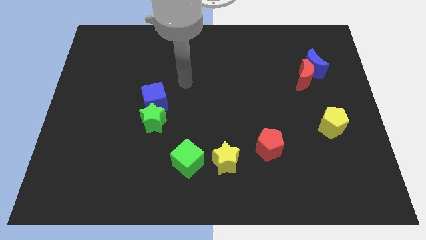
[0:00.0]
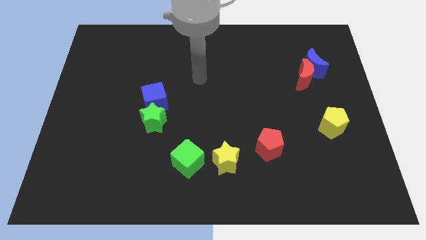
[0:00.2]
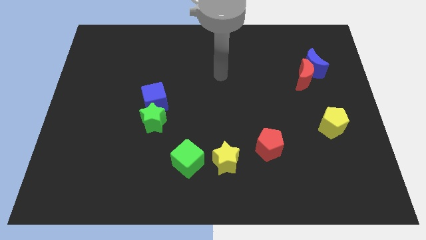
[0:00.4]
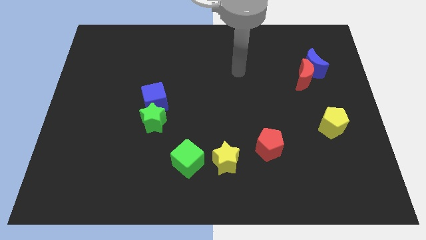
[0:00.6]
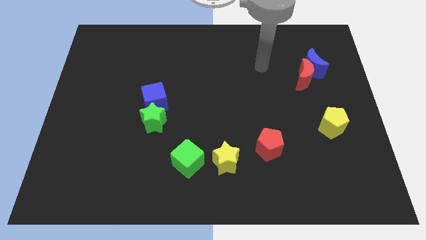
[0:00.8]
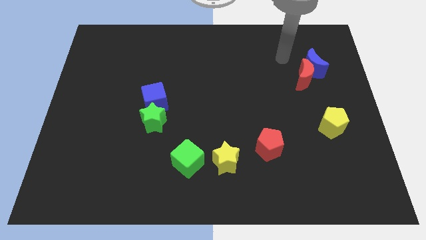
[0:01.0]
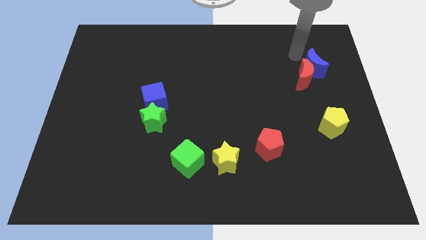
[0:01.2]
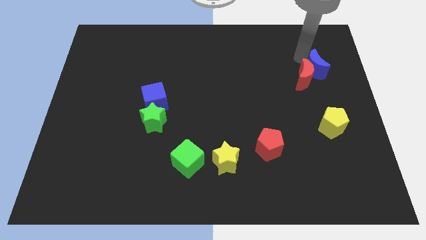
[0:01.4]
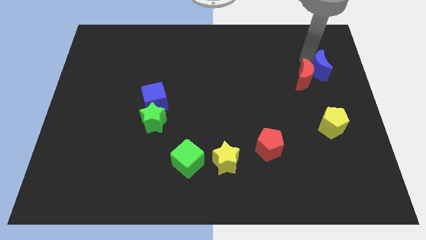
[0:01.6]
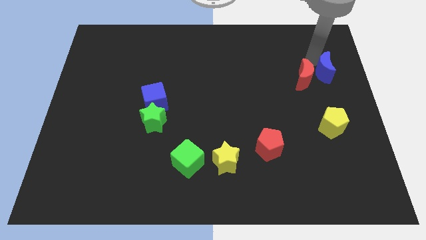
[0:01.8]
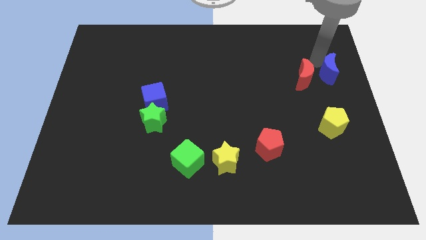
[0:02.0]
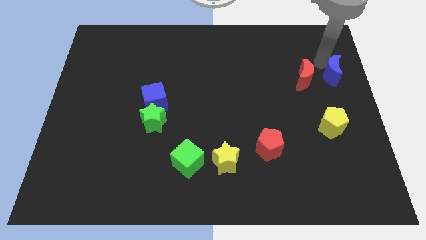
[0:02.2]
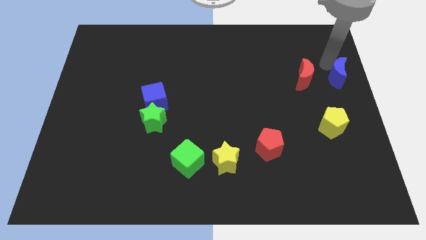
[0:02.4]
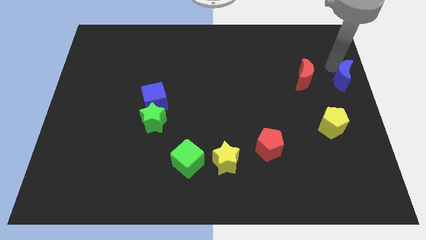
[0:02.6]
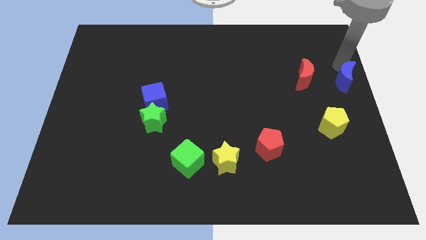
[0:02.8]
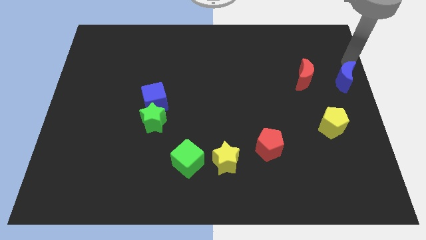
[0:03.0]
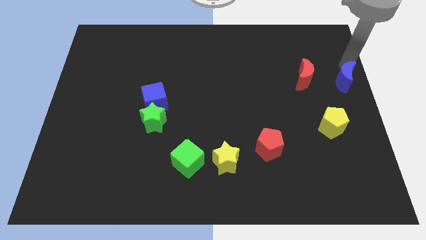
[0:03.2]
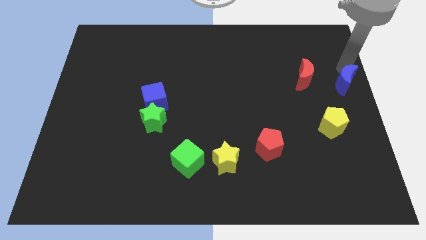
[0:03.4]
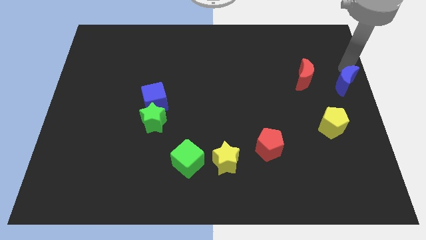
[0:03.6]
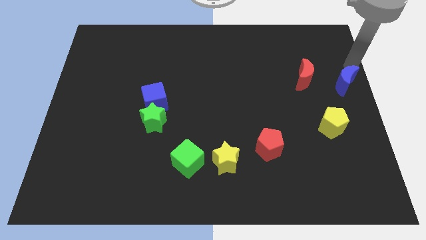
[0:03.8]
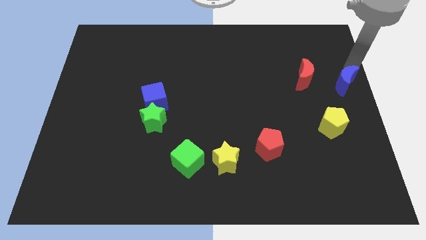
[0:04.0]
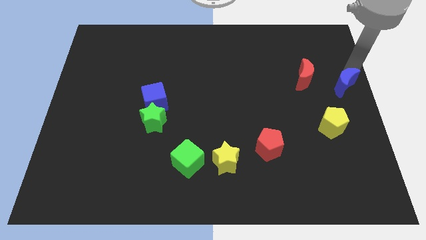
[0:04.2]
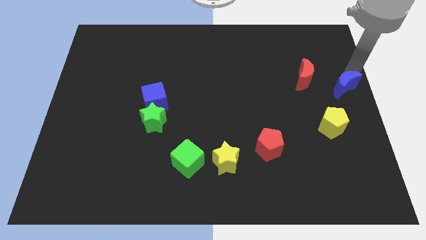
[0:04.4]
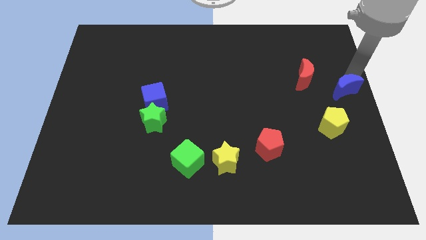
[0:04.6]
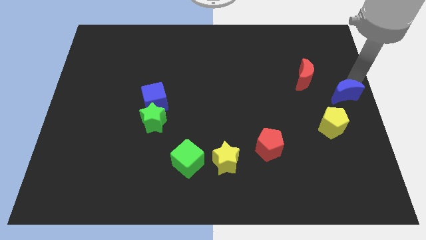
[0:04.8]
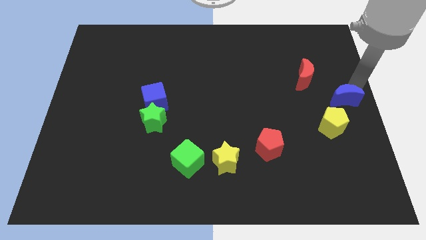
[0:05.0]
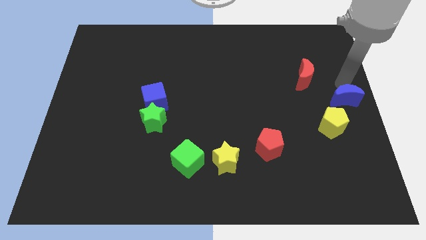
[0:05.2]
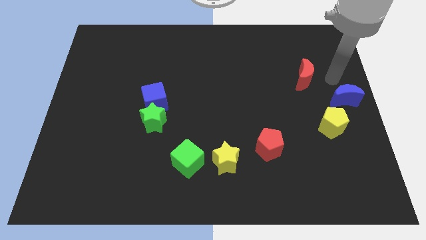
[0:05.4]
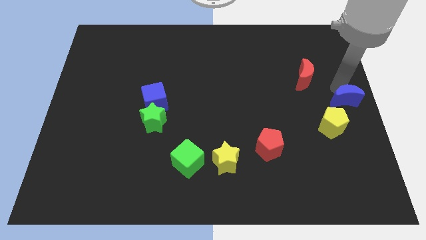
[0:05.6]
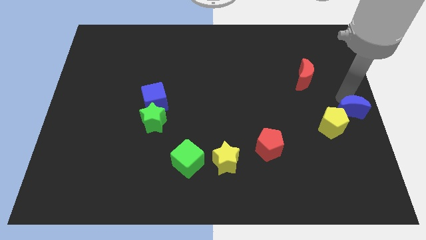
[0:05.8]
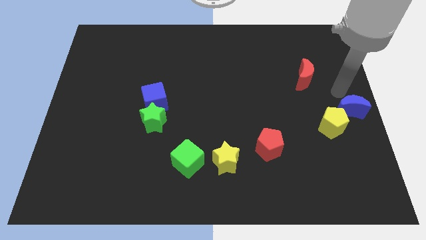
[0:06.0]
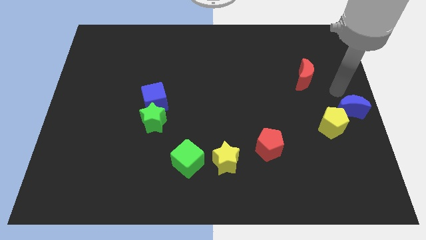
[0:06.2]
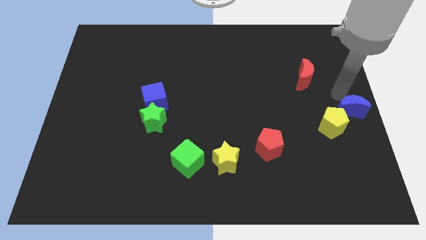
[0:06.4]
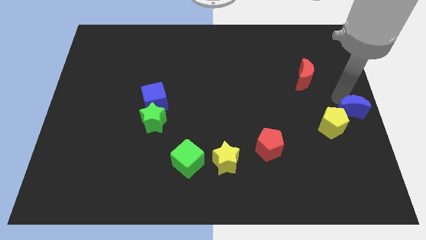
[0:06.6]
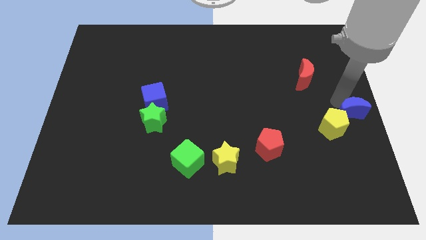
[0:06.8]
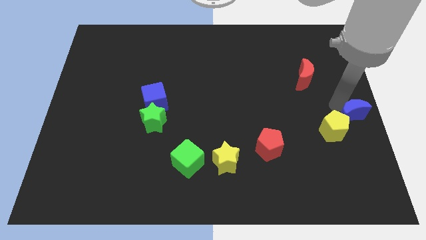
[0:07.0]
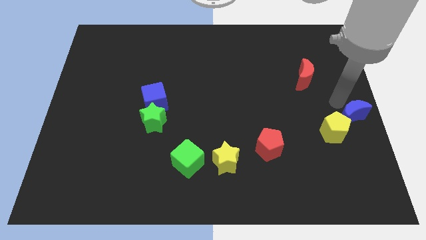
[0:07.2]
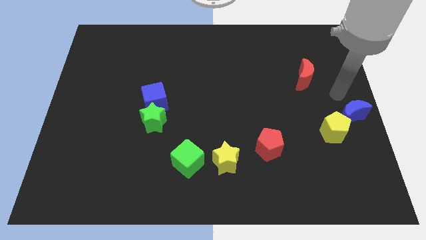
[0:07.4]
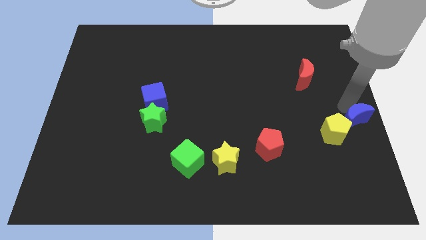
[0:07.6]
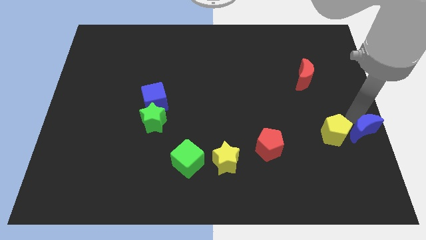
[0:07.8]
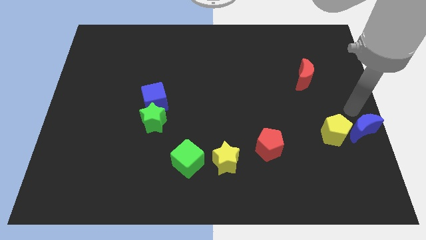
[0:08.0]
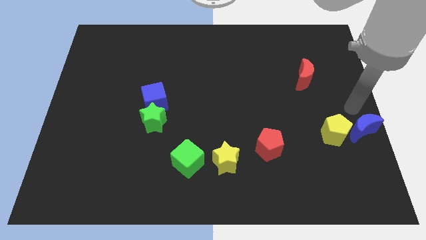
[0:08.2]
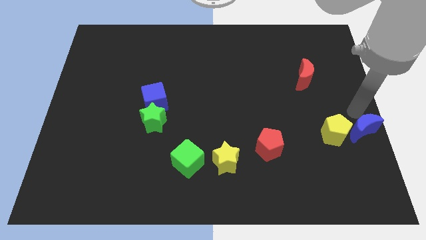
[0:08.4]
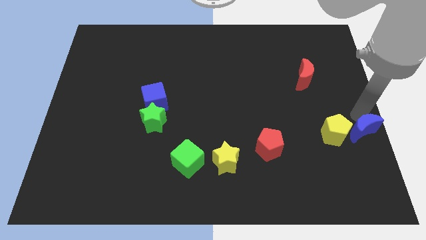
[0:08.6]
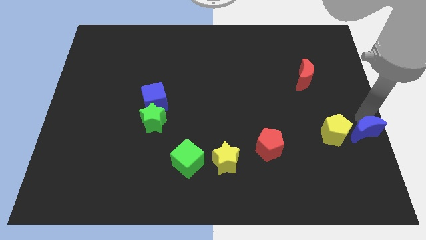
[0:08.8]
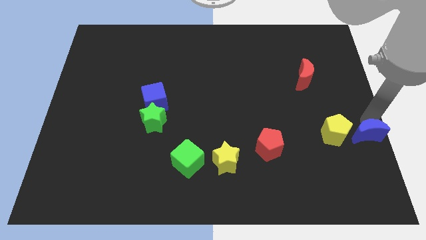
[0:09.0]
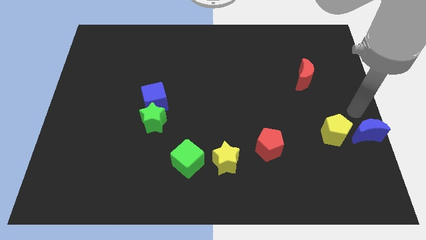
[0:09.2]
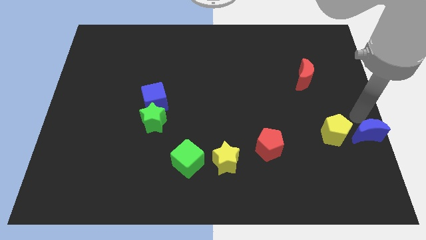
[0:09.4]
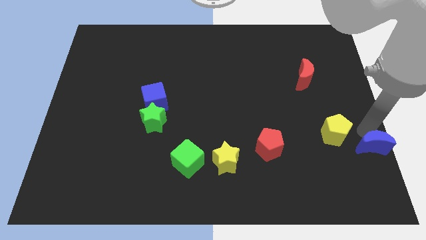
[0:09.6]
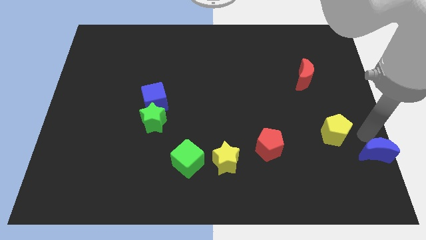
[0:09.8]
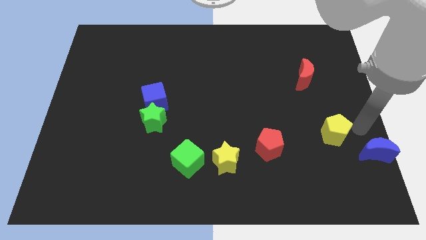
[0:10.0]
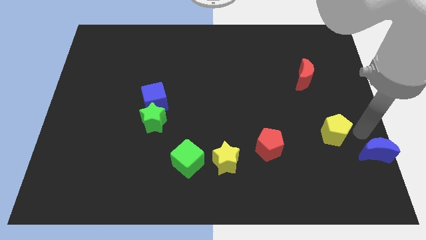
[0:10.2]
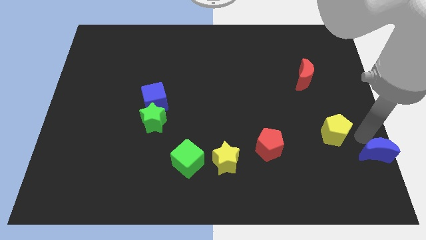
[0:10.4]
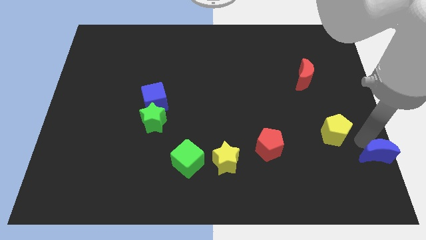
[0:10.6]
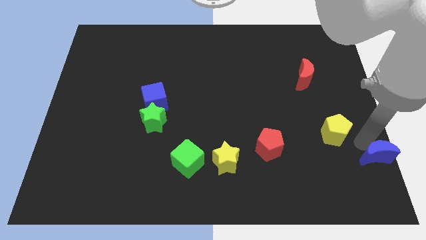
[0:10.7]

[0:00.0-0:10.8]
put the blue moon to the bottom right corner

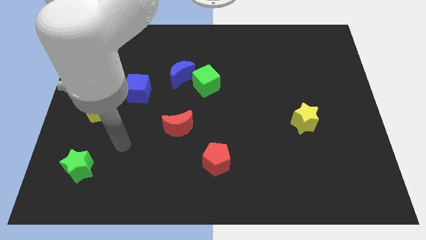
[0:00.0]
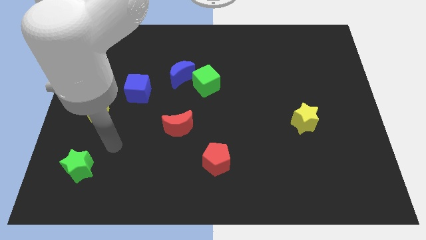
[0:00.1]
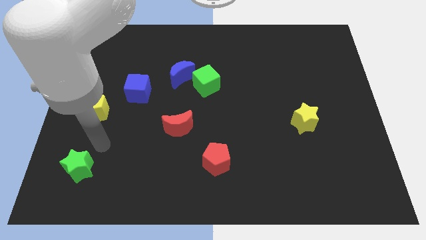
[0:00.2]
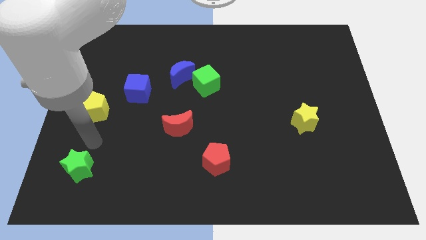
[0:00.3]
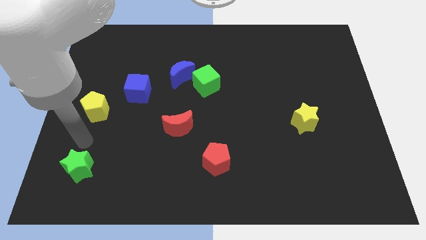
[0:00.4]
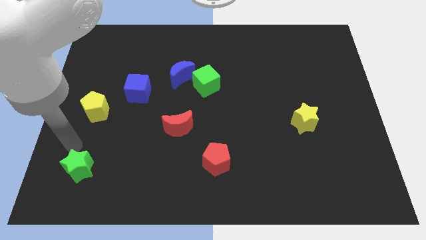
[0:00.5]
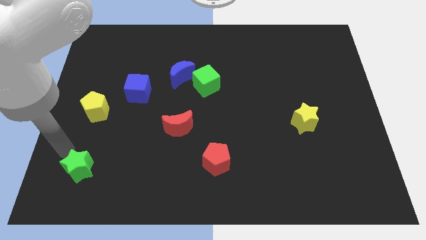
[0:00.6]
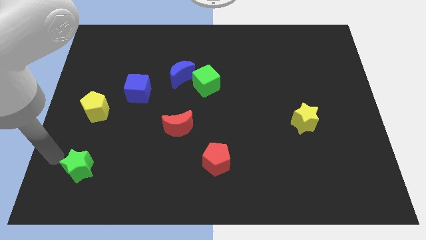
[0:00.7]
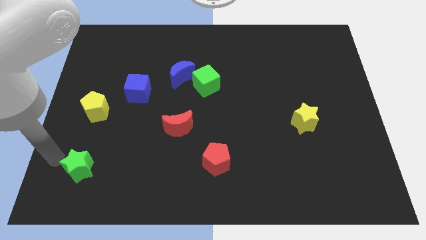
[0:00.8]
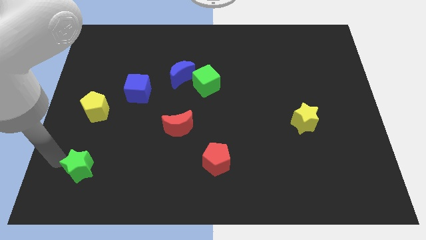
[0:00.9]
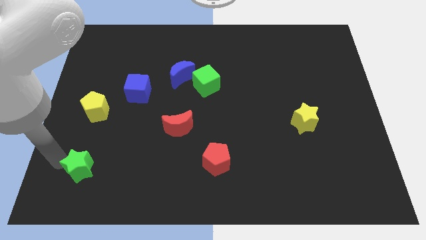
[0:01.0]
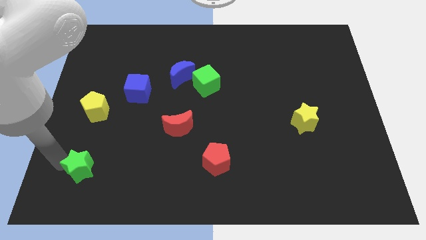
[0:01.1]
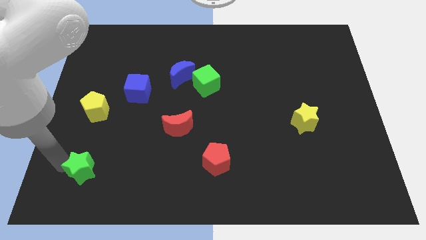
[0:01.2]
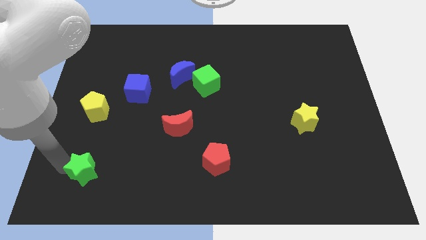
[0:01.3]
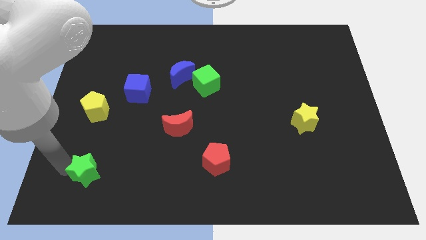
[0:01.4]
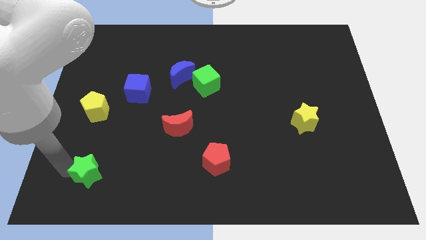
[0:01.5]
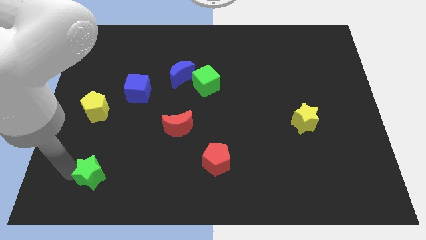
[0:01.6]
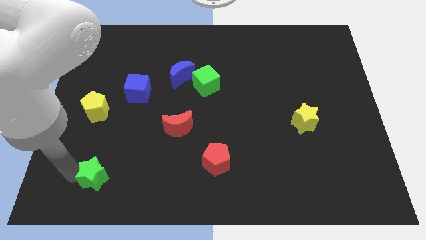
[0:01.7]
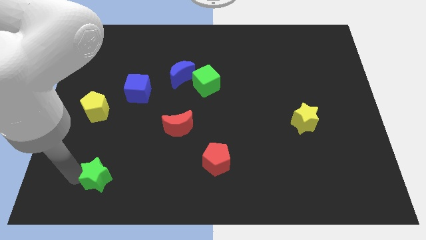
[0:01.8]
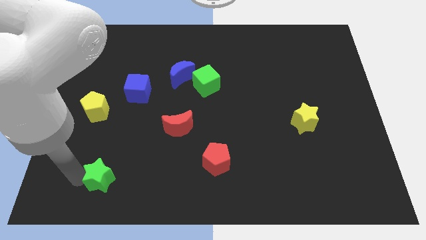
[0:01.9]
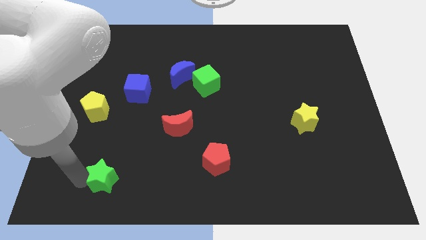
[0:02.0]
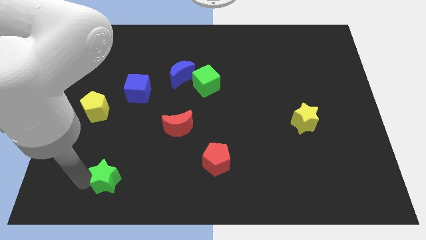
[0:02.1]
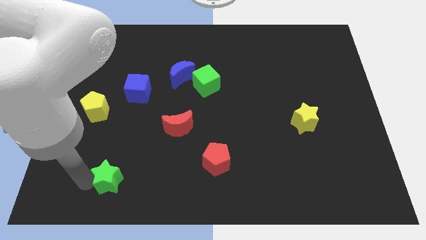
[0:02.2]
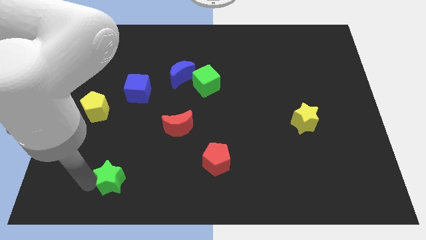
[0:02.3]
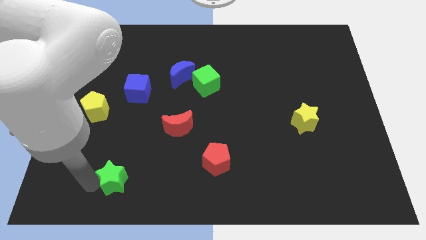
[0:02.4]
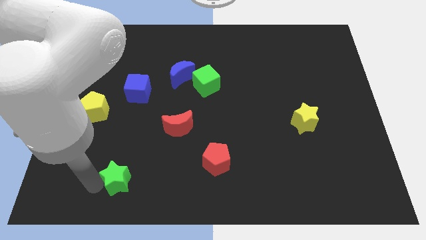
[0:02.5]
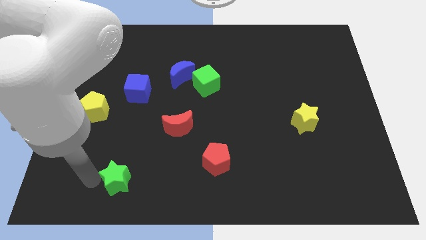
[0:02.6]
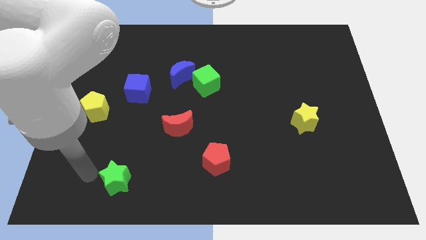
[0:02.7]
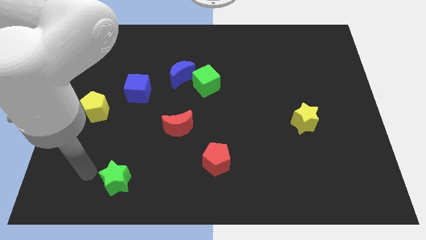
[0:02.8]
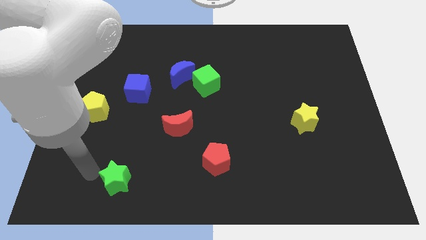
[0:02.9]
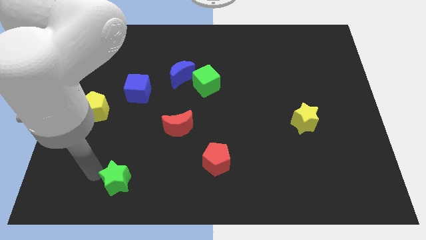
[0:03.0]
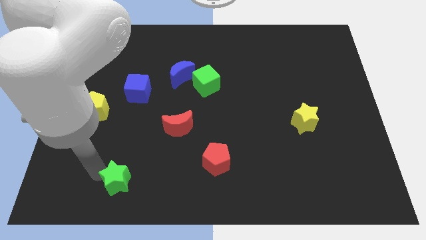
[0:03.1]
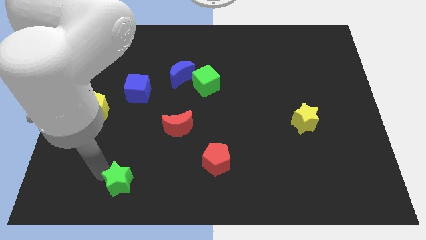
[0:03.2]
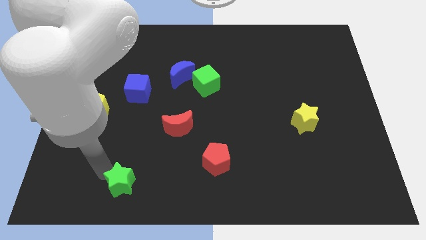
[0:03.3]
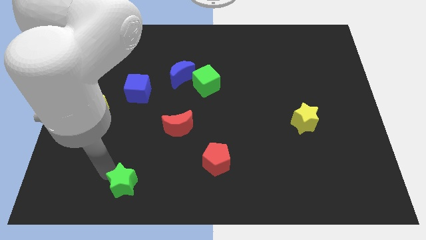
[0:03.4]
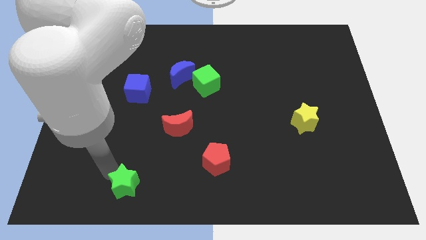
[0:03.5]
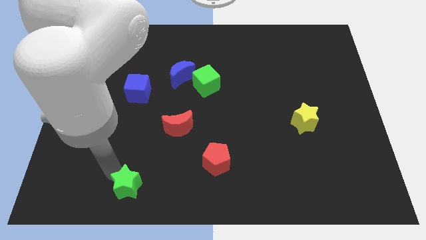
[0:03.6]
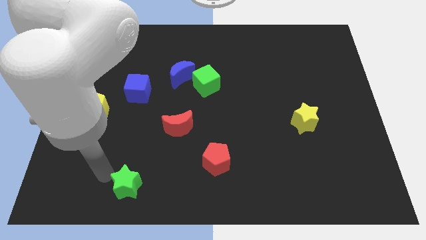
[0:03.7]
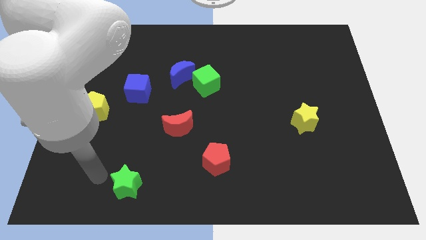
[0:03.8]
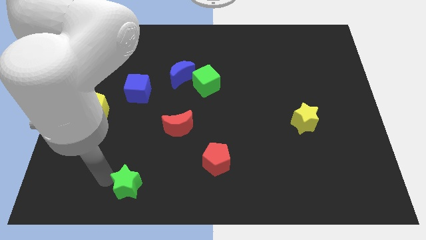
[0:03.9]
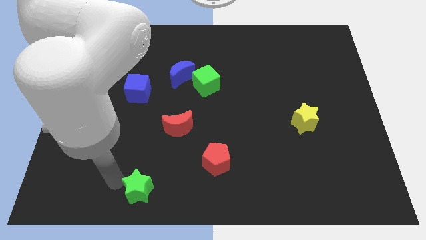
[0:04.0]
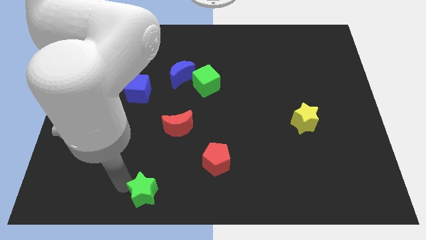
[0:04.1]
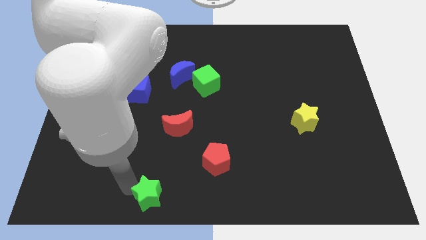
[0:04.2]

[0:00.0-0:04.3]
put the green star to the bottom side
